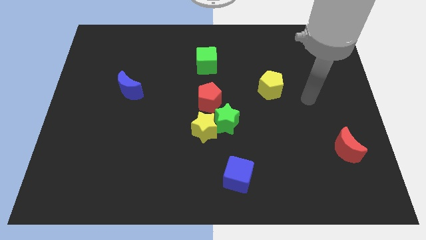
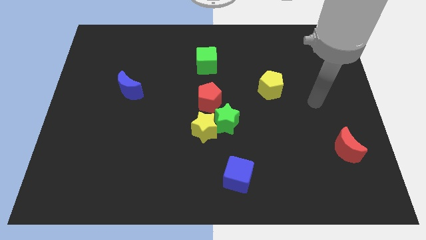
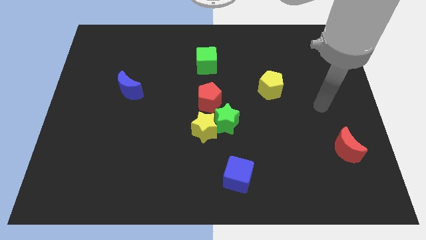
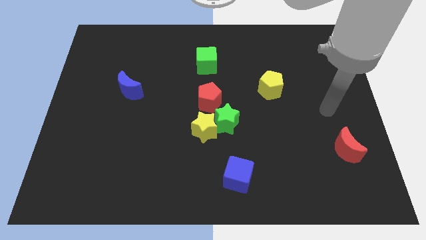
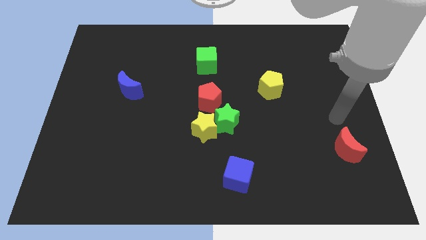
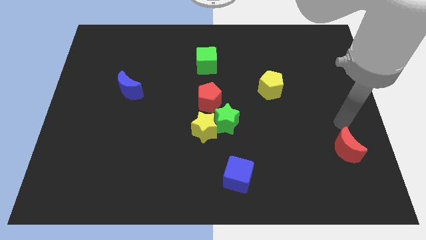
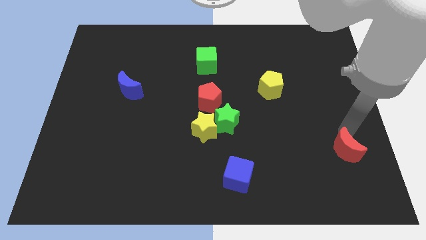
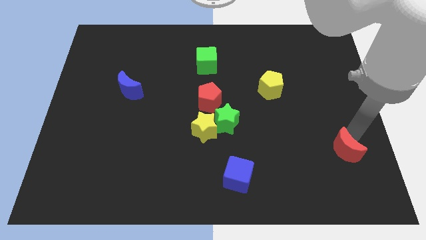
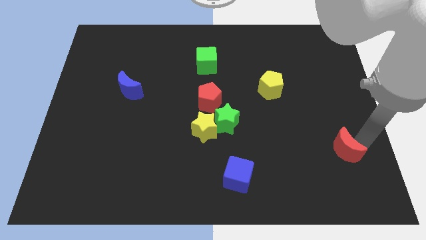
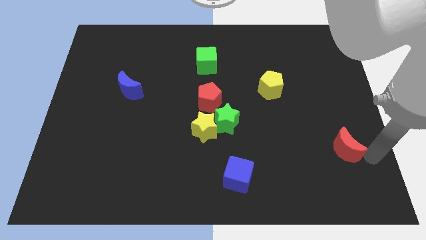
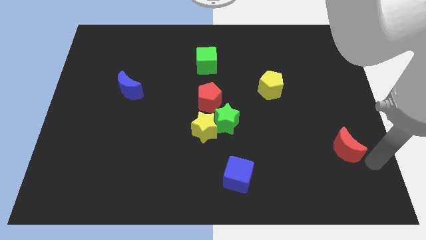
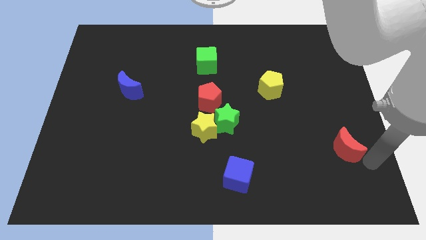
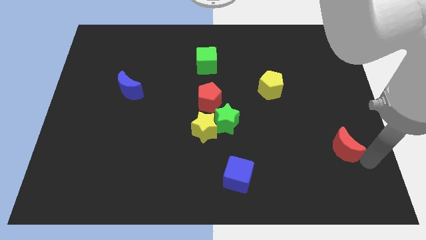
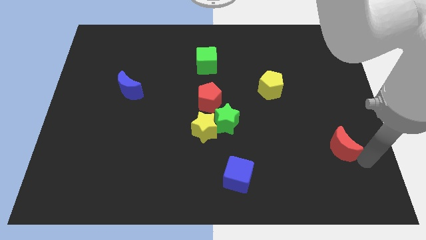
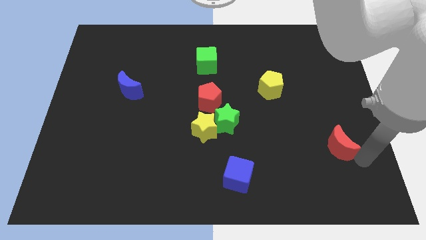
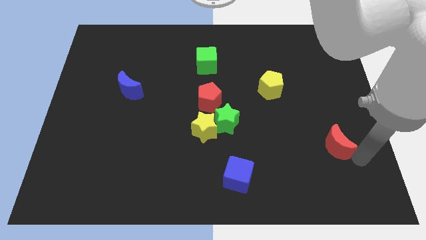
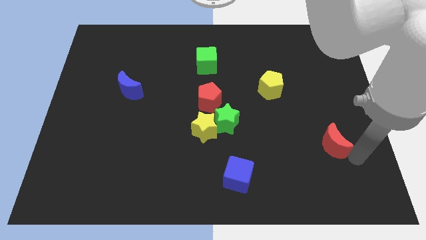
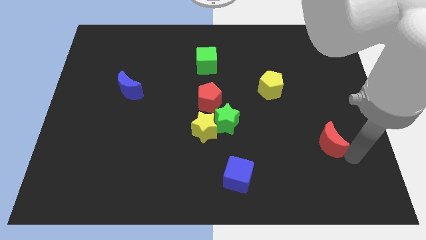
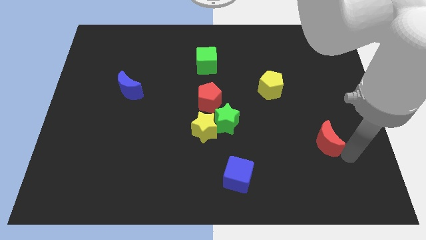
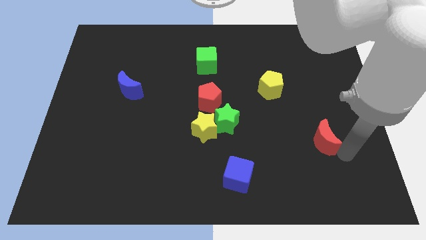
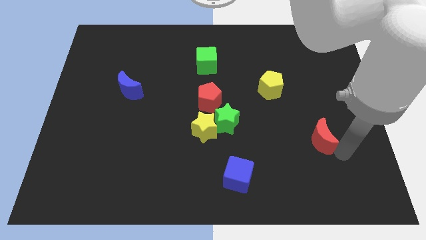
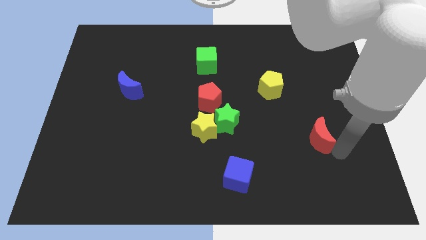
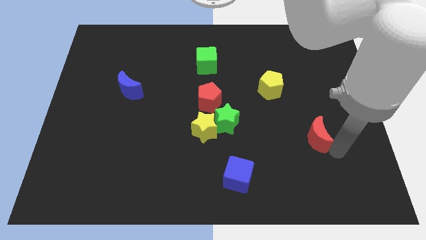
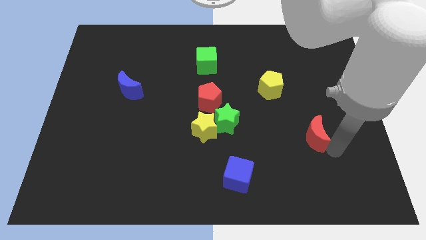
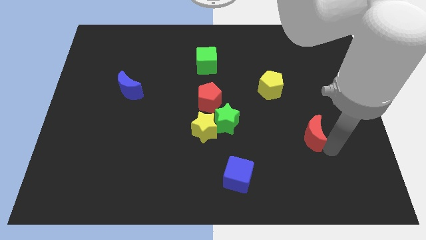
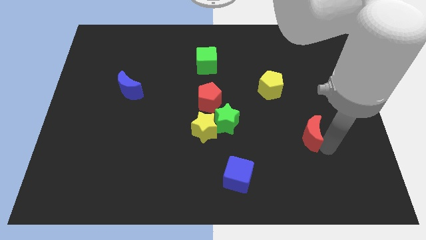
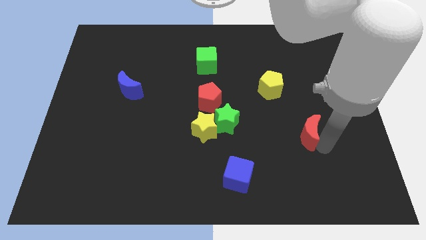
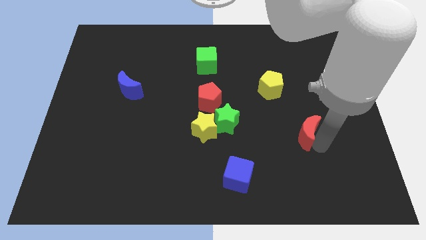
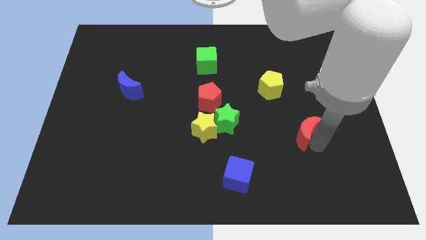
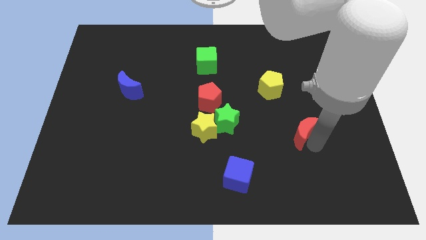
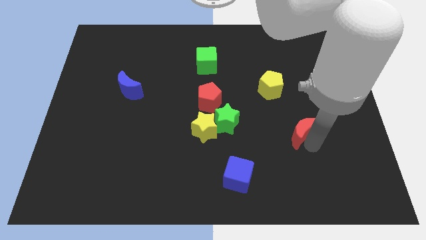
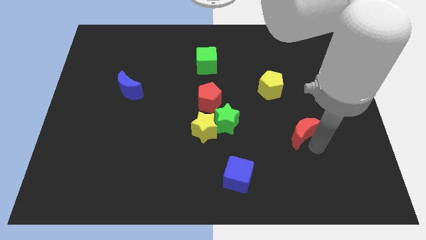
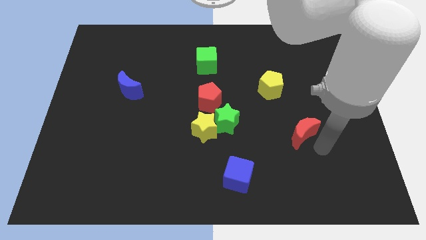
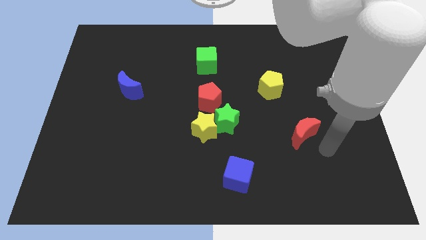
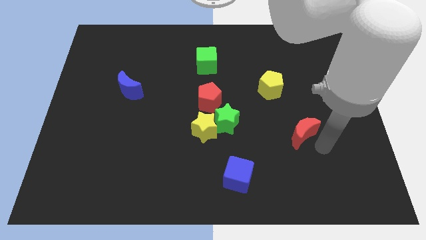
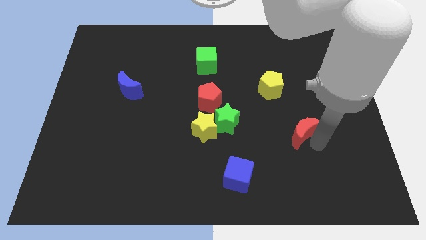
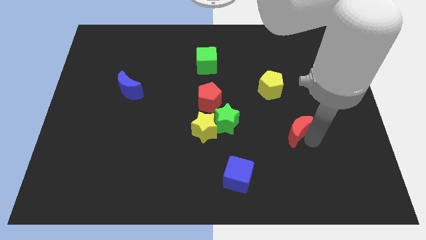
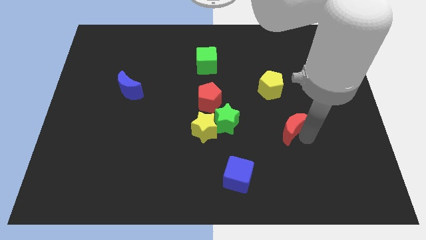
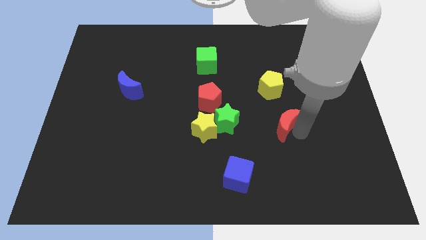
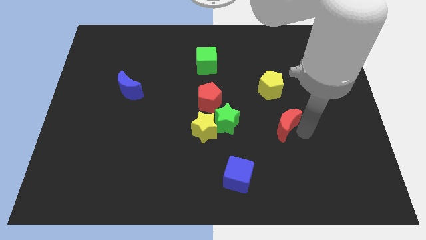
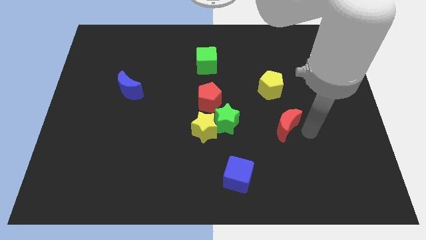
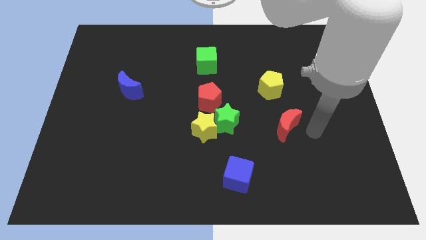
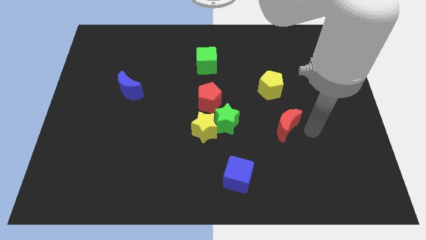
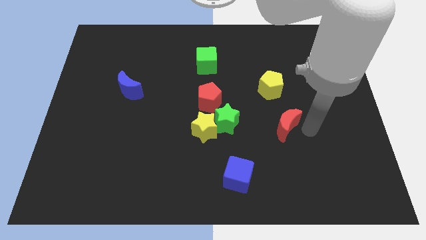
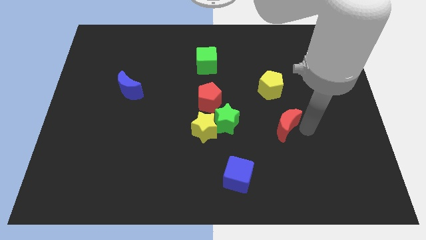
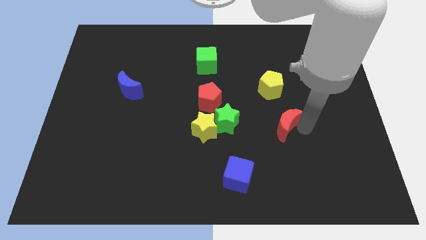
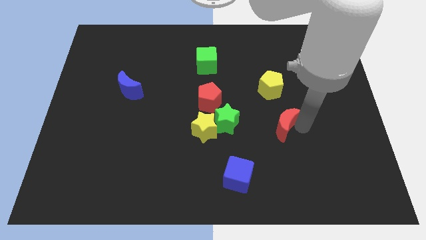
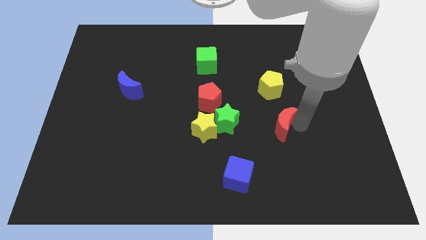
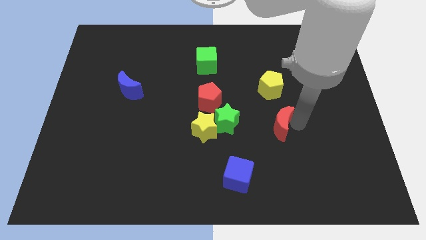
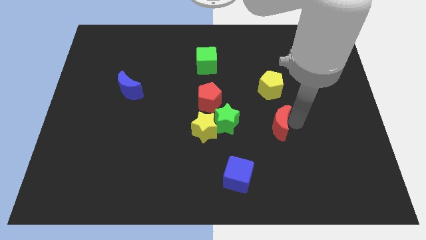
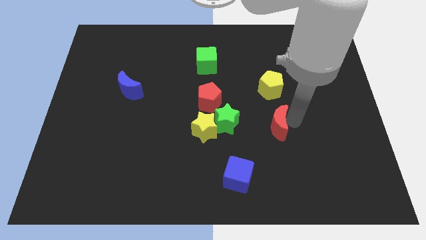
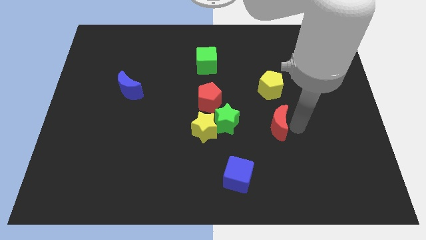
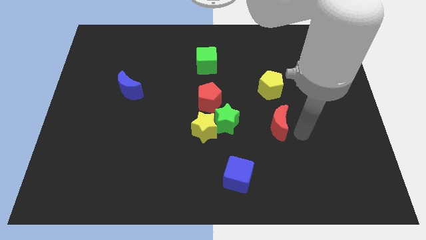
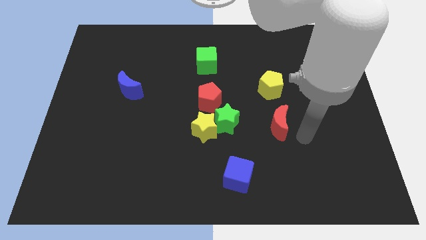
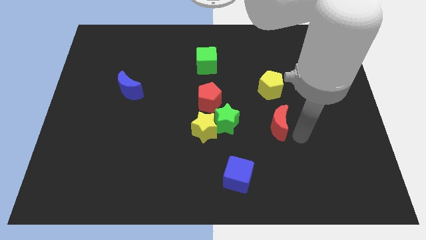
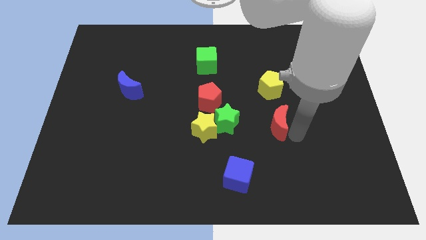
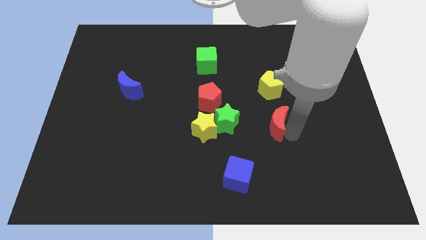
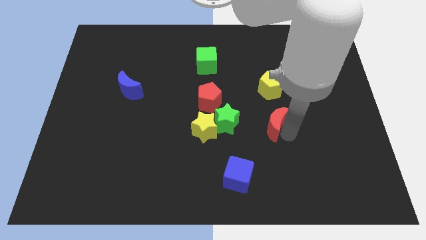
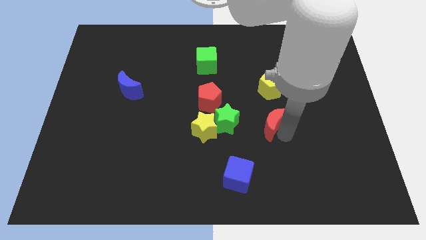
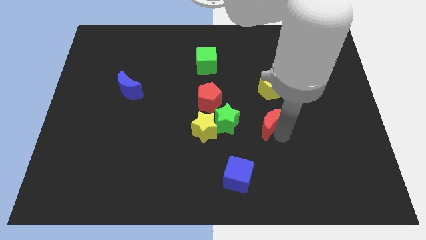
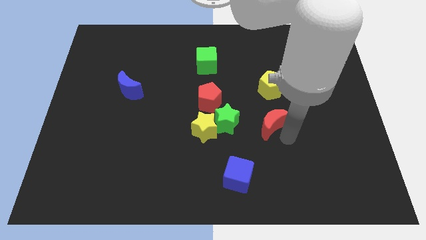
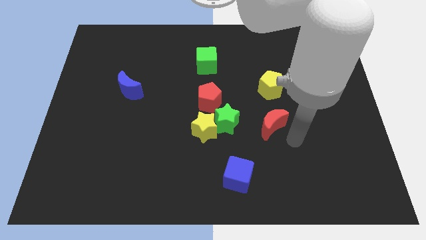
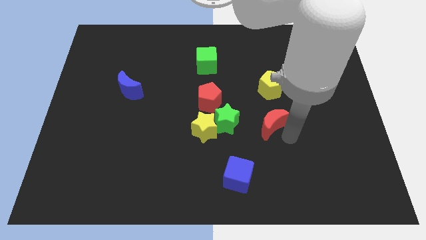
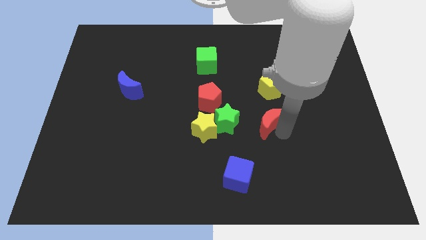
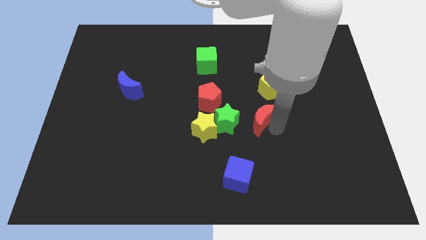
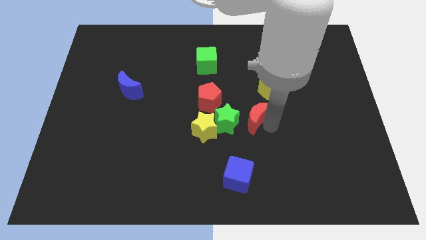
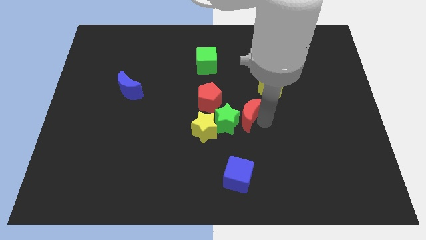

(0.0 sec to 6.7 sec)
put the red moon diagonally up and to the right of the yellow star
